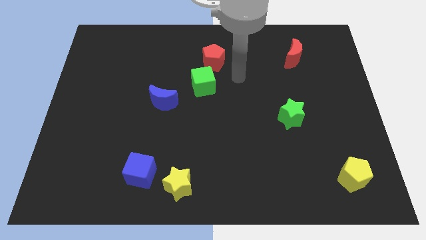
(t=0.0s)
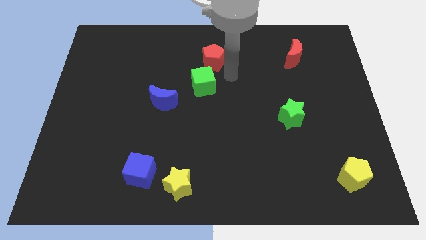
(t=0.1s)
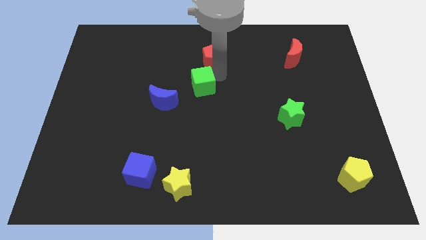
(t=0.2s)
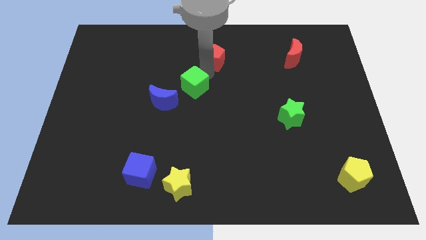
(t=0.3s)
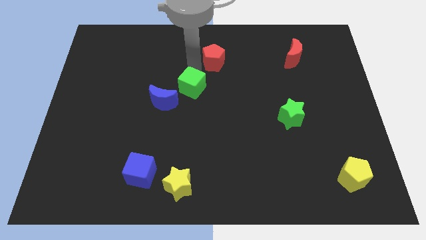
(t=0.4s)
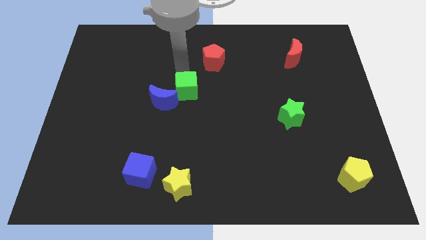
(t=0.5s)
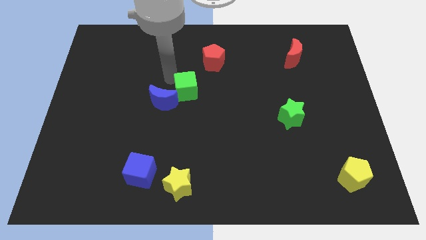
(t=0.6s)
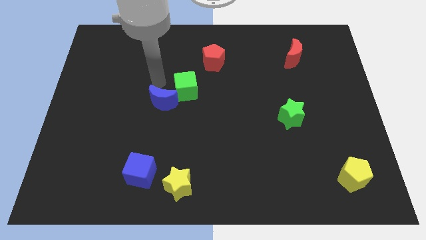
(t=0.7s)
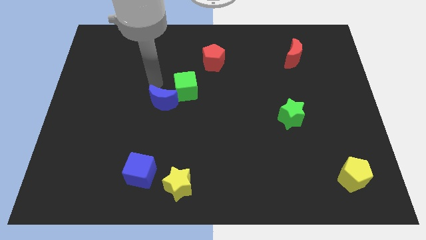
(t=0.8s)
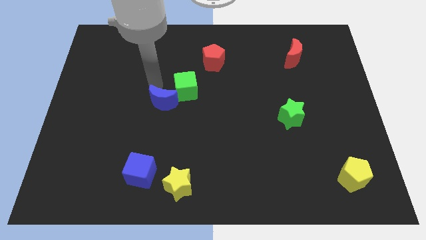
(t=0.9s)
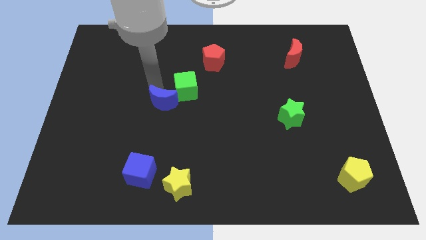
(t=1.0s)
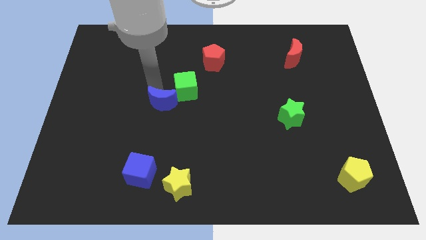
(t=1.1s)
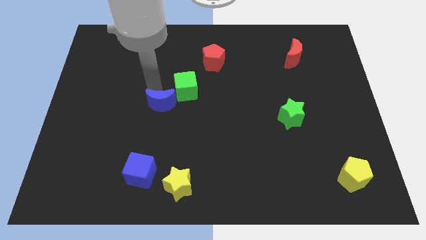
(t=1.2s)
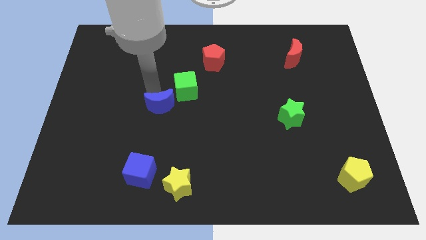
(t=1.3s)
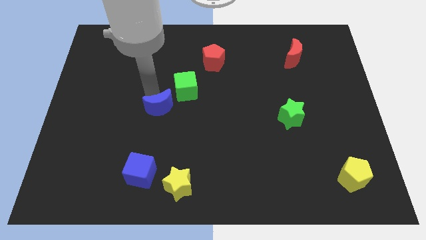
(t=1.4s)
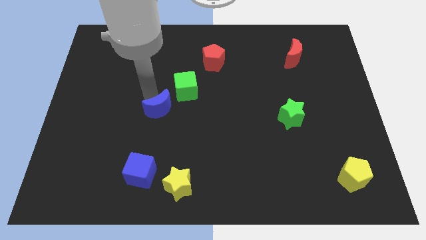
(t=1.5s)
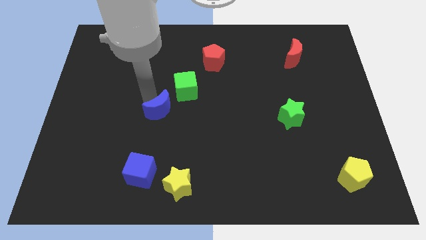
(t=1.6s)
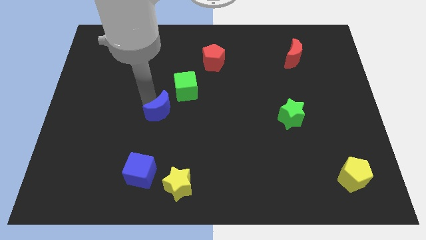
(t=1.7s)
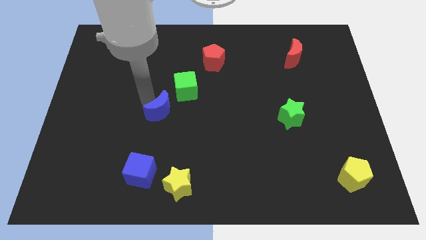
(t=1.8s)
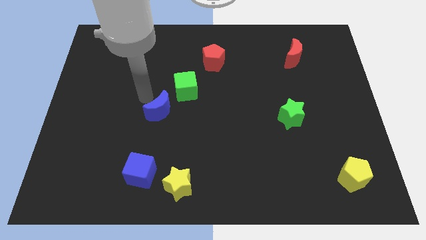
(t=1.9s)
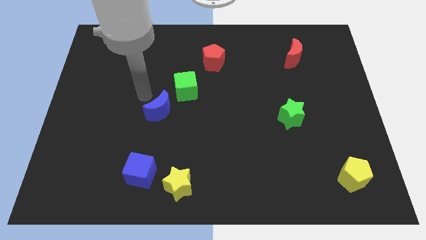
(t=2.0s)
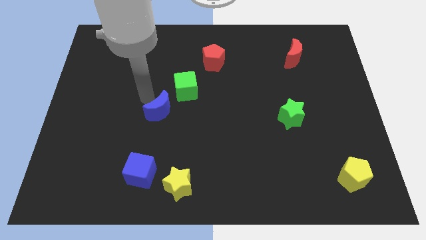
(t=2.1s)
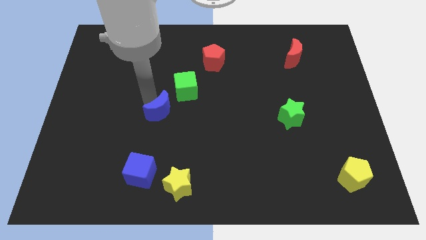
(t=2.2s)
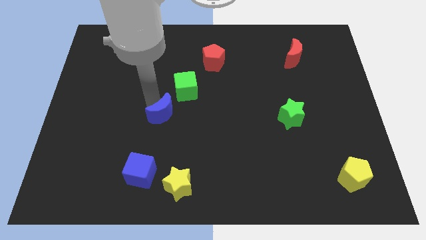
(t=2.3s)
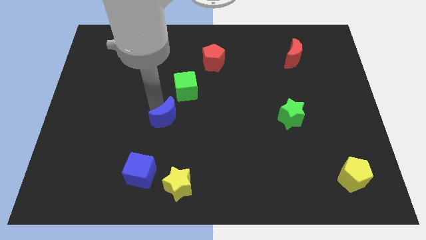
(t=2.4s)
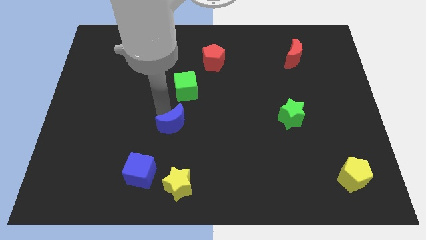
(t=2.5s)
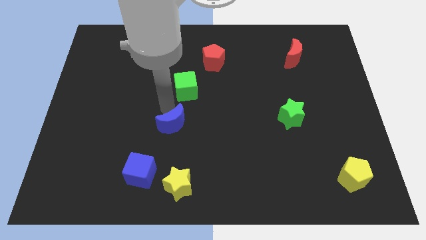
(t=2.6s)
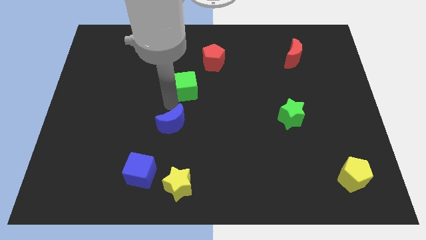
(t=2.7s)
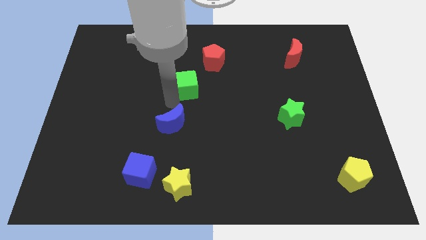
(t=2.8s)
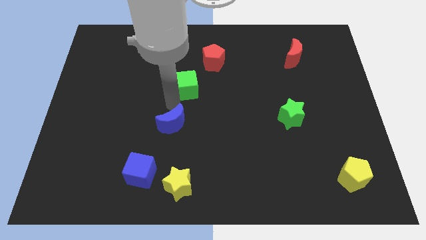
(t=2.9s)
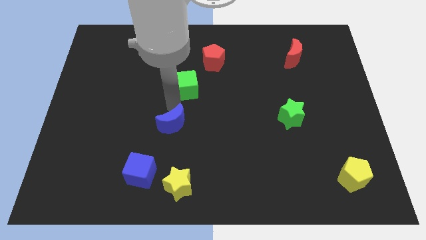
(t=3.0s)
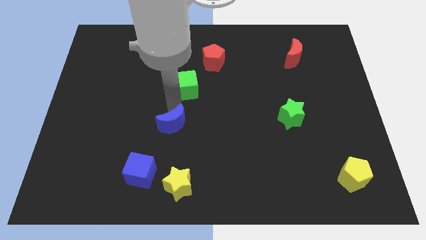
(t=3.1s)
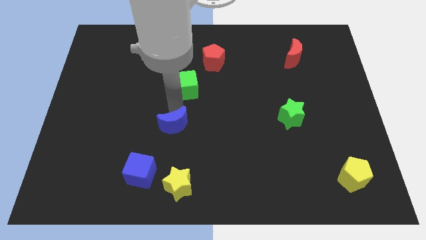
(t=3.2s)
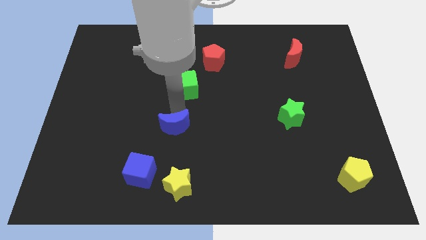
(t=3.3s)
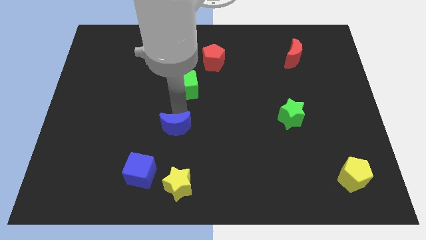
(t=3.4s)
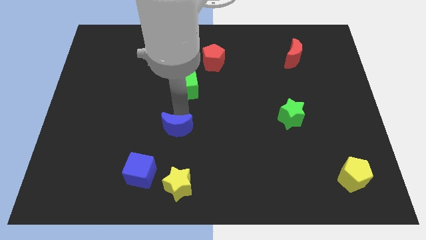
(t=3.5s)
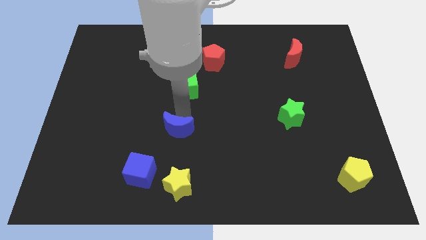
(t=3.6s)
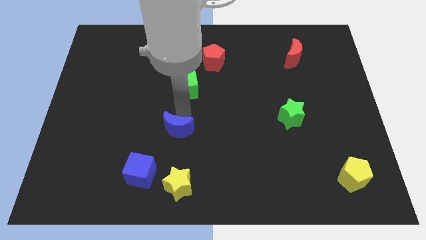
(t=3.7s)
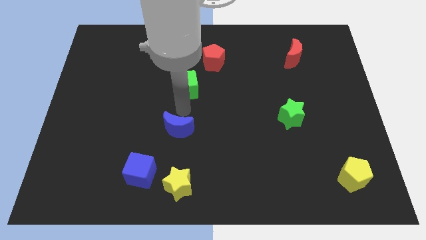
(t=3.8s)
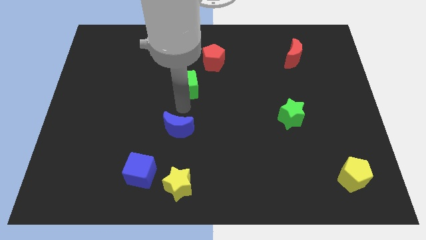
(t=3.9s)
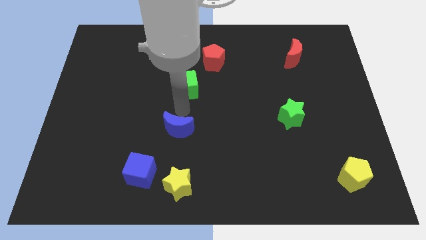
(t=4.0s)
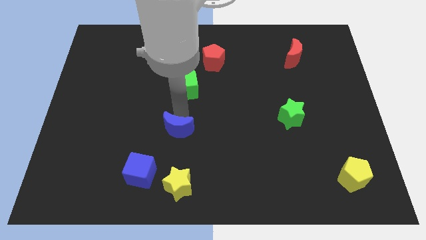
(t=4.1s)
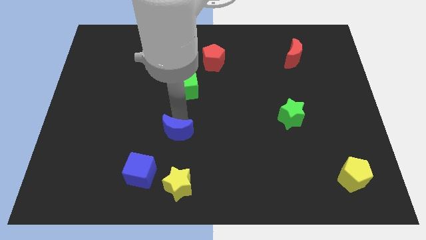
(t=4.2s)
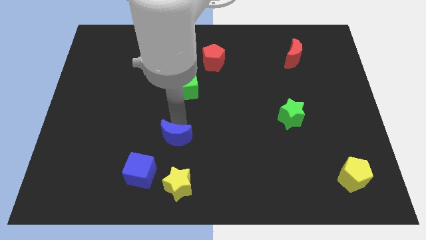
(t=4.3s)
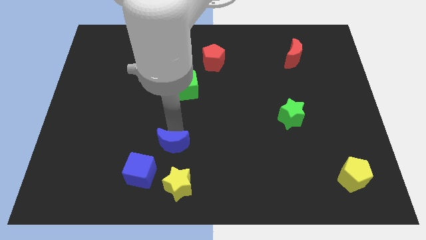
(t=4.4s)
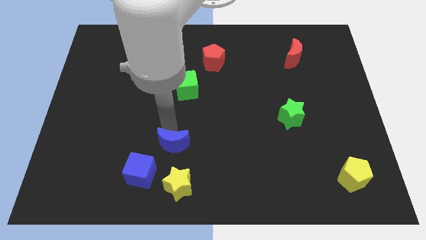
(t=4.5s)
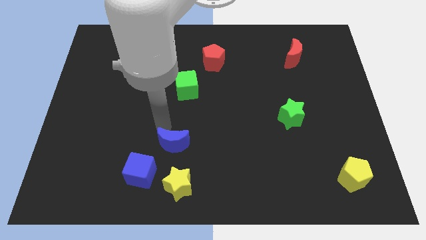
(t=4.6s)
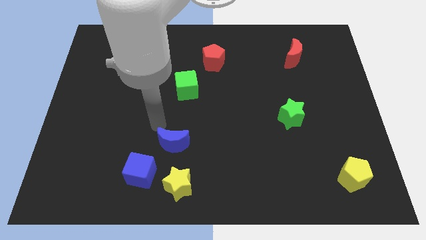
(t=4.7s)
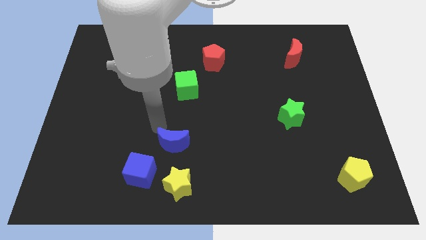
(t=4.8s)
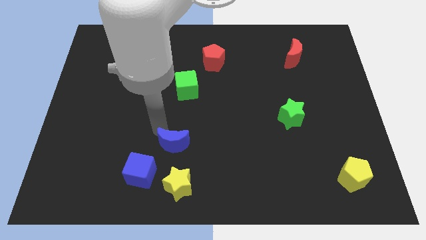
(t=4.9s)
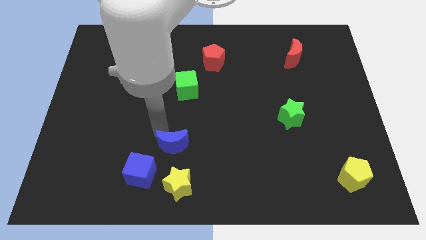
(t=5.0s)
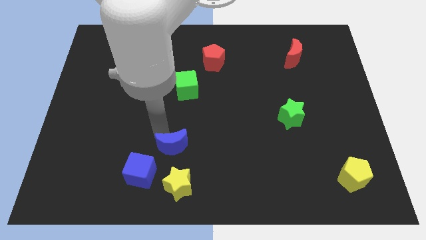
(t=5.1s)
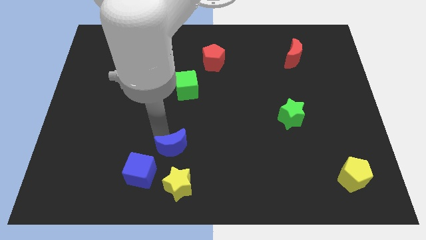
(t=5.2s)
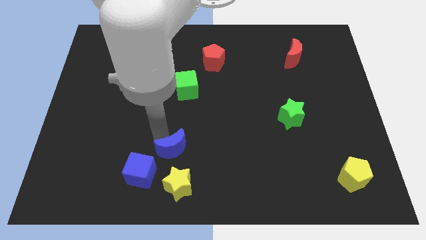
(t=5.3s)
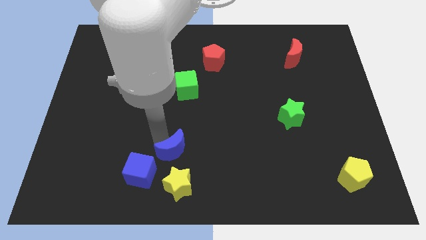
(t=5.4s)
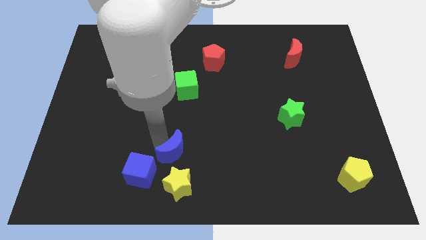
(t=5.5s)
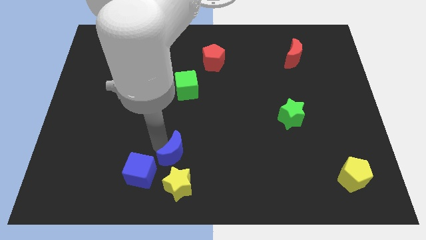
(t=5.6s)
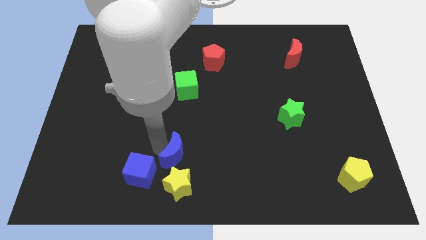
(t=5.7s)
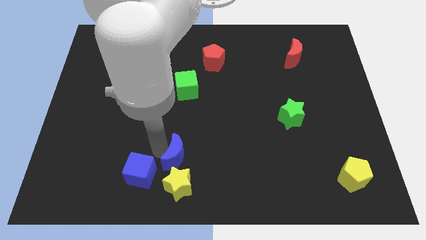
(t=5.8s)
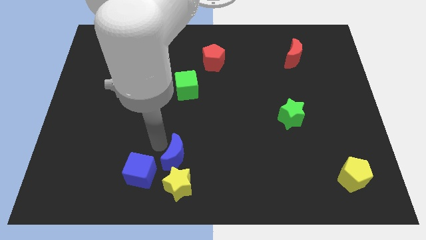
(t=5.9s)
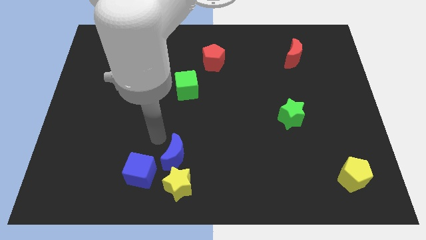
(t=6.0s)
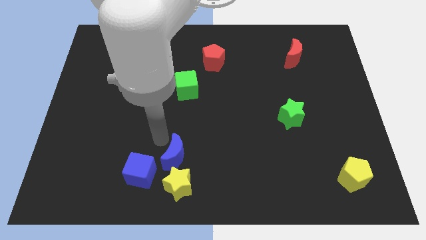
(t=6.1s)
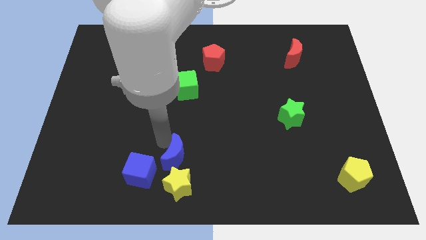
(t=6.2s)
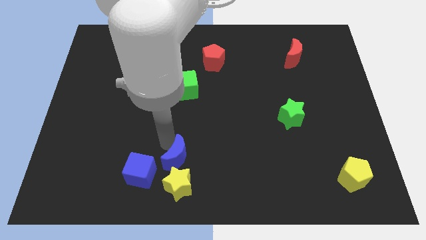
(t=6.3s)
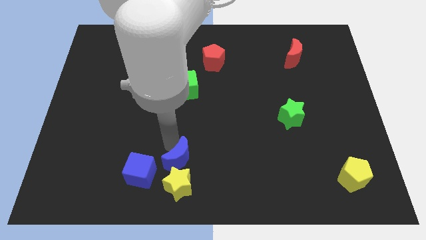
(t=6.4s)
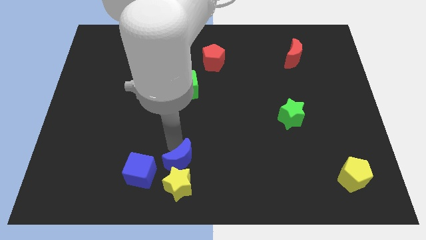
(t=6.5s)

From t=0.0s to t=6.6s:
move the blue moon to the bottom
